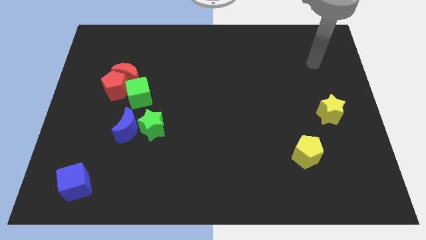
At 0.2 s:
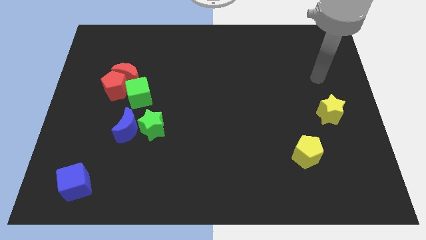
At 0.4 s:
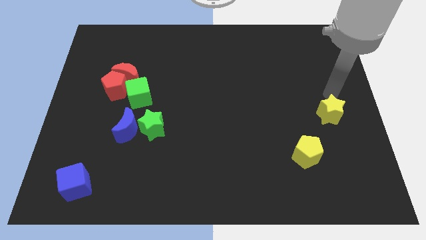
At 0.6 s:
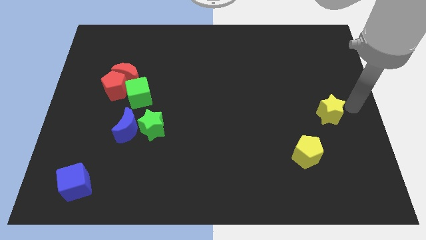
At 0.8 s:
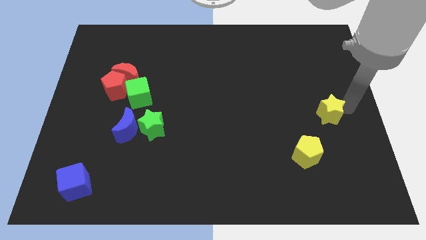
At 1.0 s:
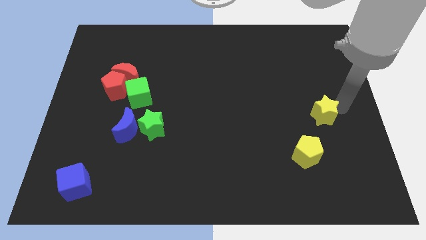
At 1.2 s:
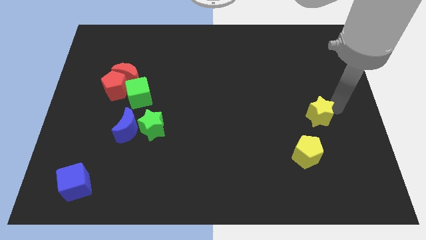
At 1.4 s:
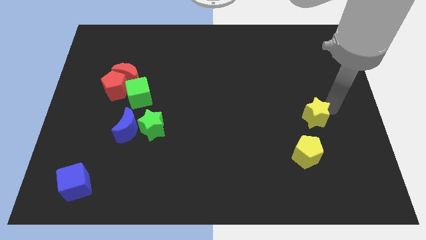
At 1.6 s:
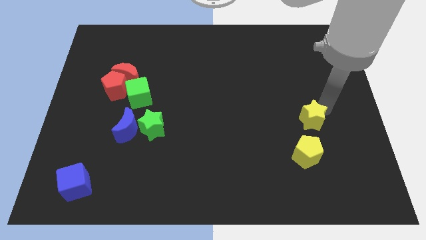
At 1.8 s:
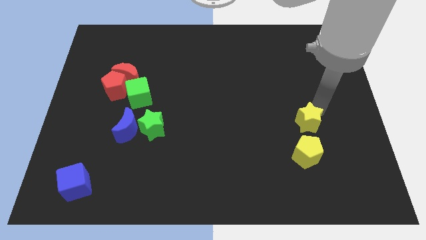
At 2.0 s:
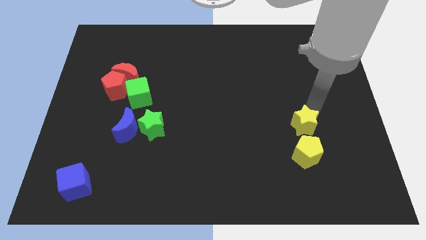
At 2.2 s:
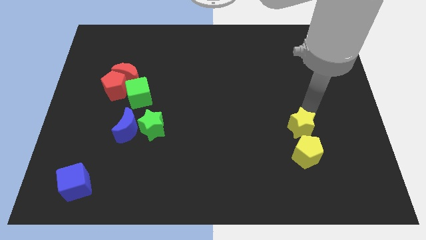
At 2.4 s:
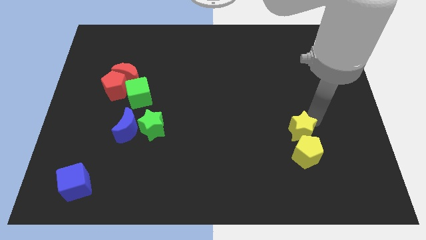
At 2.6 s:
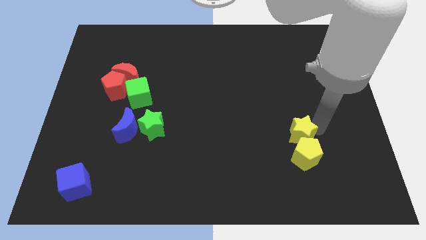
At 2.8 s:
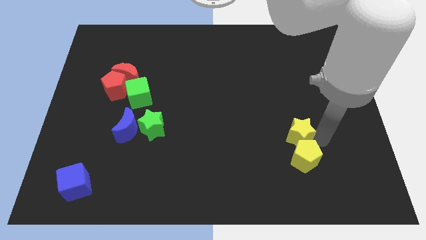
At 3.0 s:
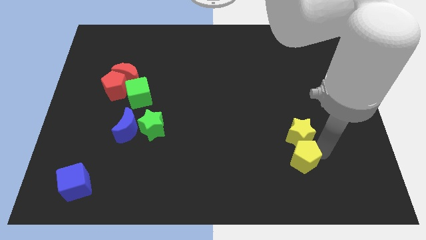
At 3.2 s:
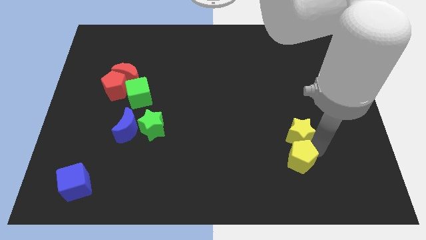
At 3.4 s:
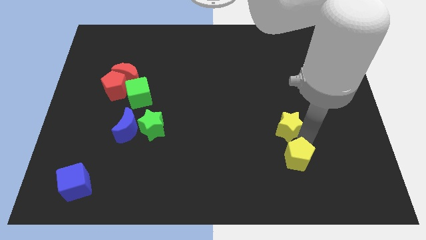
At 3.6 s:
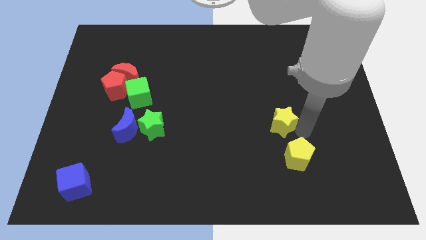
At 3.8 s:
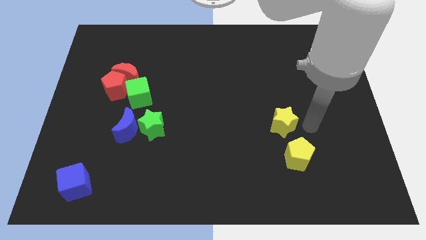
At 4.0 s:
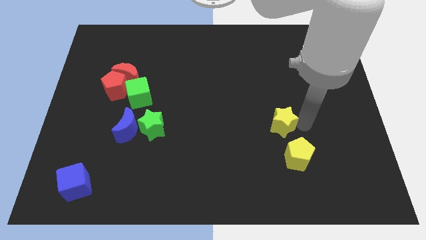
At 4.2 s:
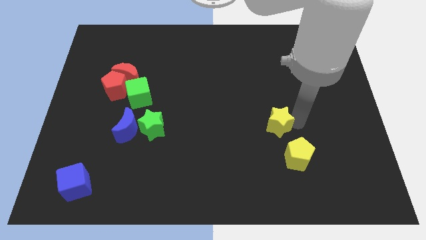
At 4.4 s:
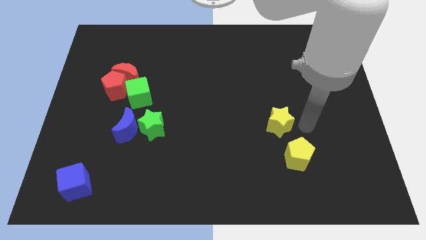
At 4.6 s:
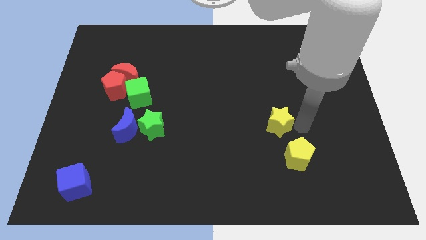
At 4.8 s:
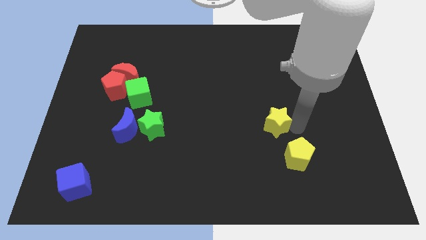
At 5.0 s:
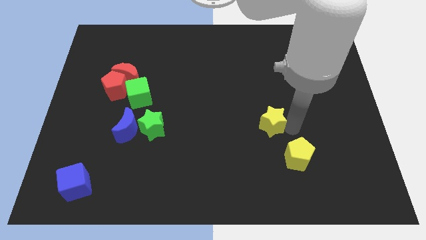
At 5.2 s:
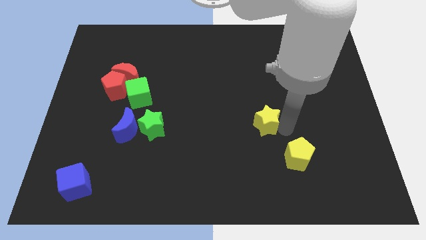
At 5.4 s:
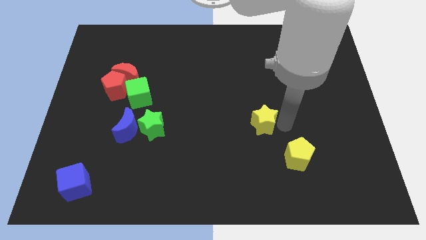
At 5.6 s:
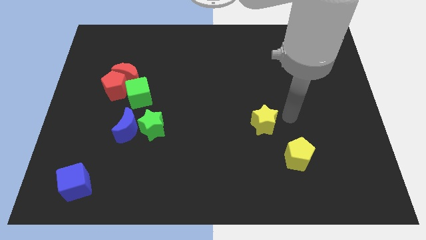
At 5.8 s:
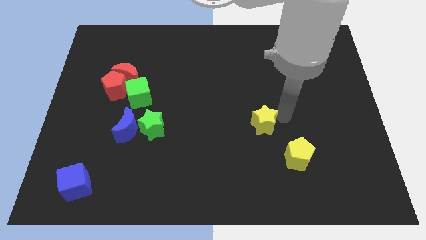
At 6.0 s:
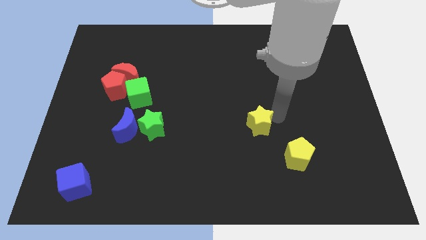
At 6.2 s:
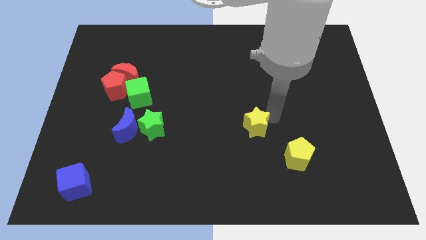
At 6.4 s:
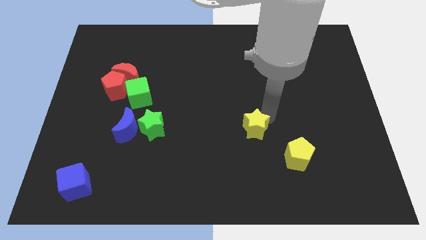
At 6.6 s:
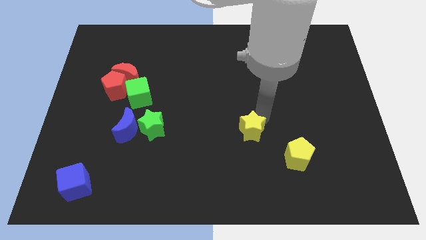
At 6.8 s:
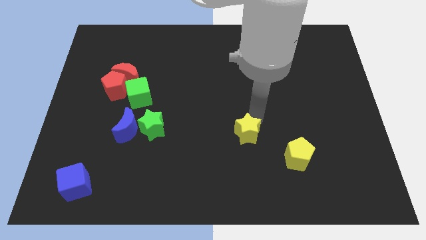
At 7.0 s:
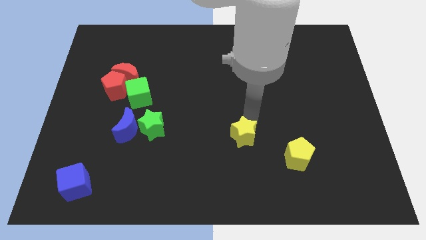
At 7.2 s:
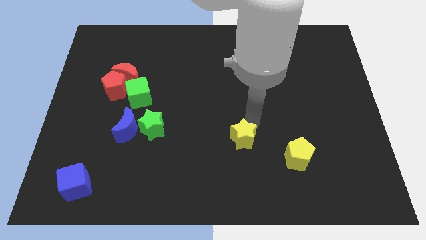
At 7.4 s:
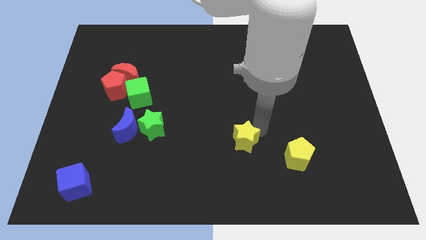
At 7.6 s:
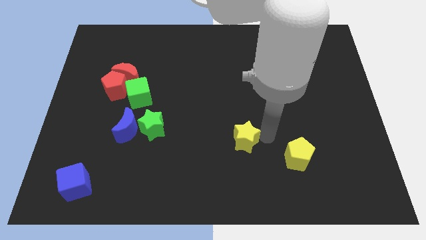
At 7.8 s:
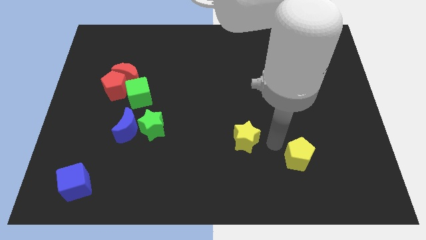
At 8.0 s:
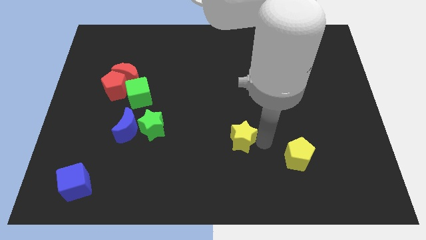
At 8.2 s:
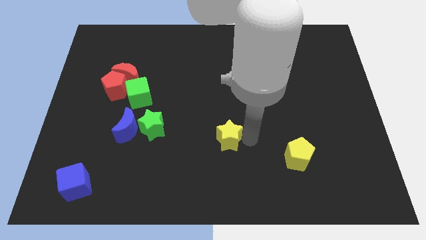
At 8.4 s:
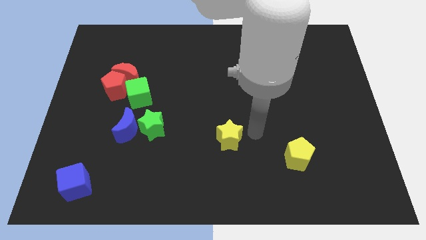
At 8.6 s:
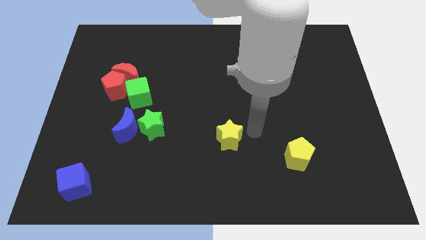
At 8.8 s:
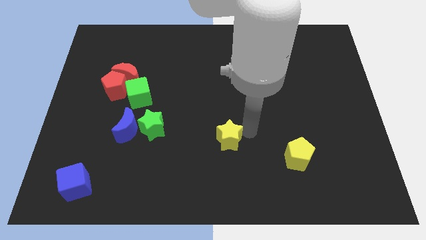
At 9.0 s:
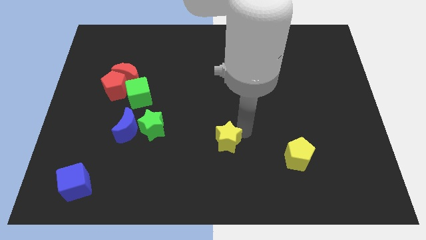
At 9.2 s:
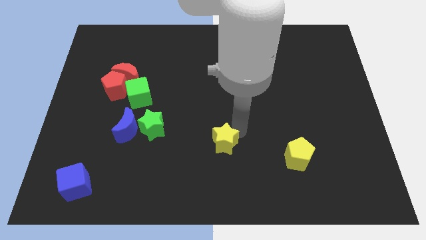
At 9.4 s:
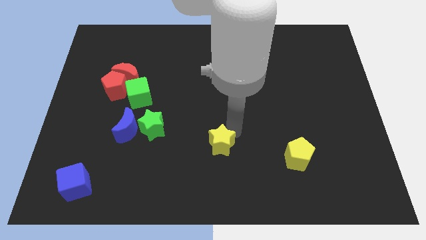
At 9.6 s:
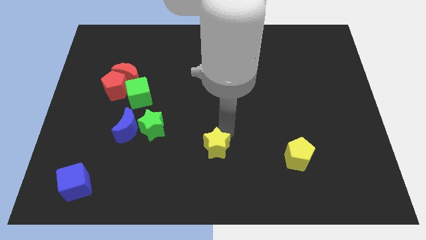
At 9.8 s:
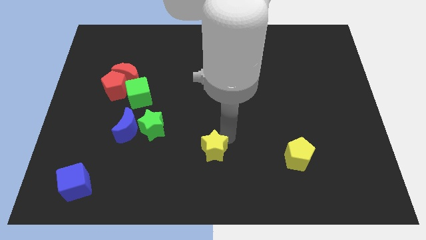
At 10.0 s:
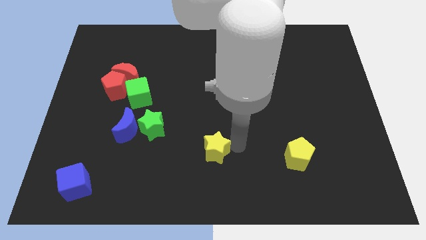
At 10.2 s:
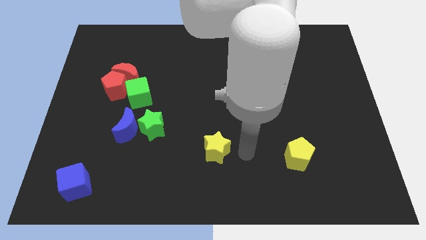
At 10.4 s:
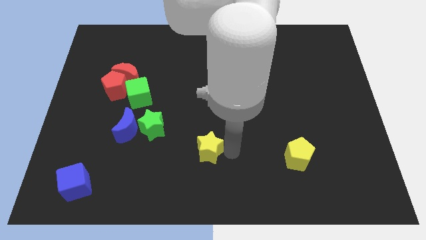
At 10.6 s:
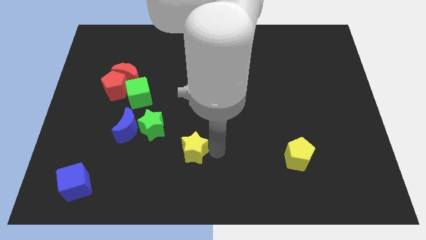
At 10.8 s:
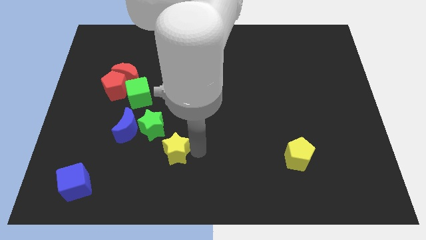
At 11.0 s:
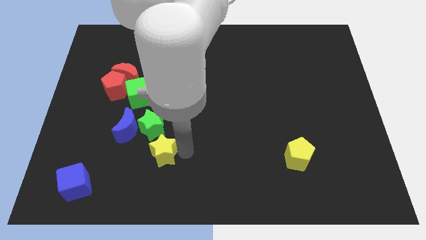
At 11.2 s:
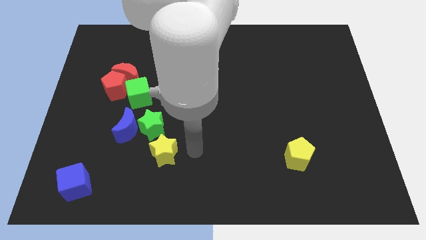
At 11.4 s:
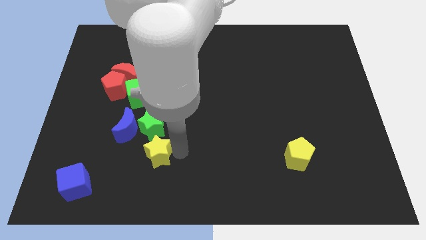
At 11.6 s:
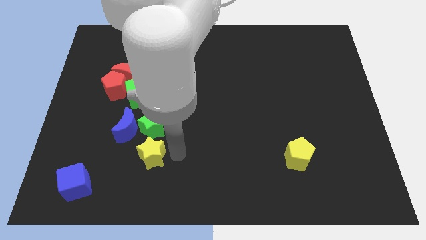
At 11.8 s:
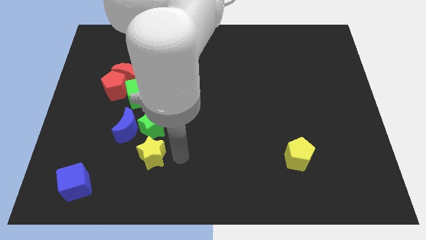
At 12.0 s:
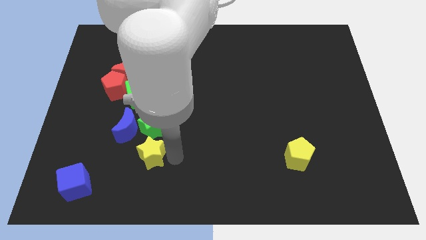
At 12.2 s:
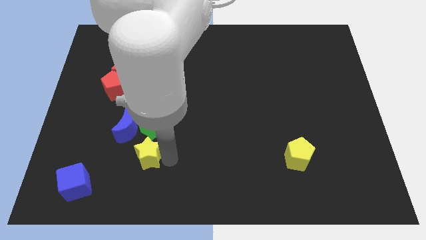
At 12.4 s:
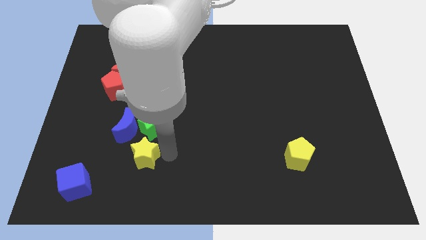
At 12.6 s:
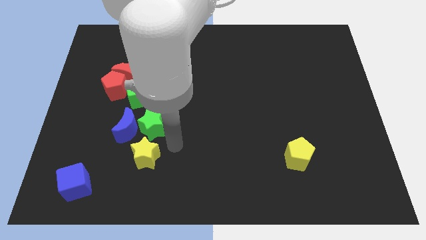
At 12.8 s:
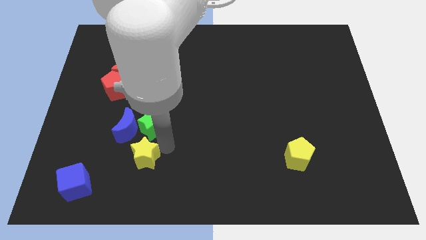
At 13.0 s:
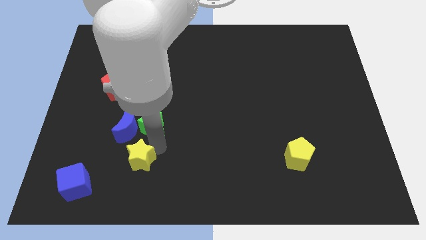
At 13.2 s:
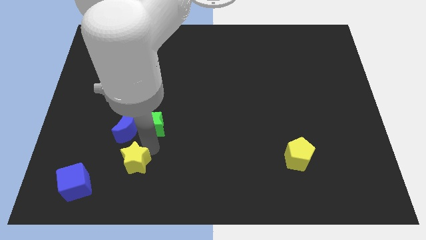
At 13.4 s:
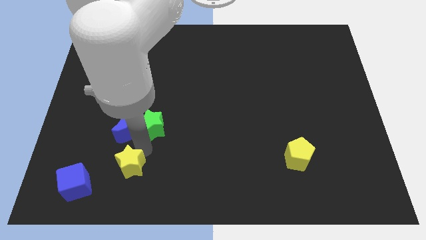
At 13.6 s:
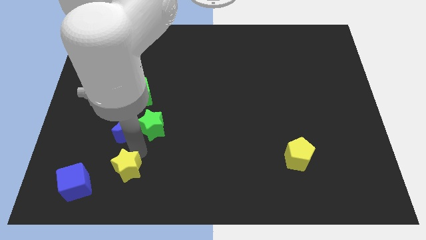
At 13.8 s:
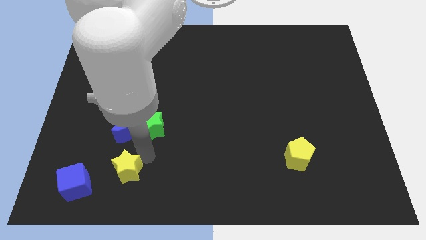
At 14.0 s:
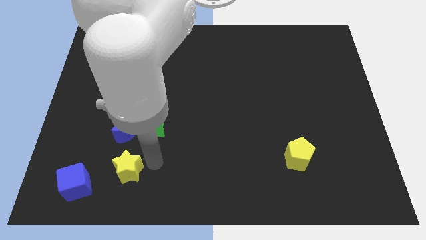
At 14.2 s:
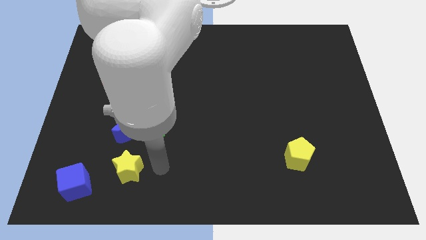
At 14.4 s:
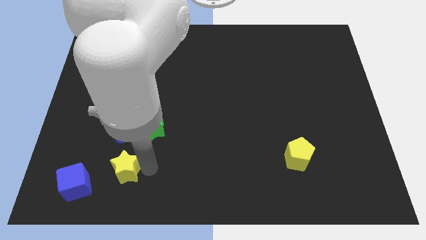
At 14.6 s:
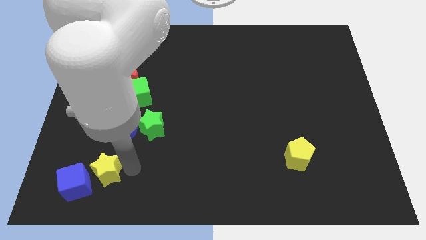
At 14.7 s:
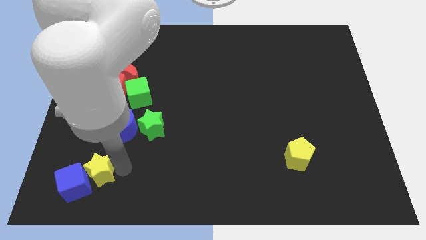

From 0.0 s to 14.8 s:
put the yellow star next to the blue cube
